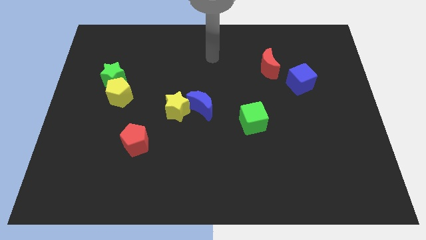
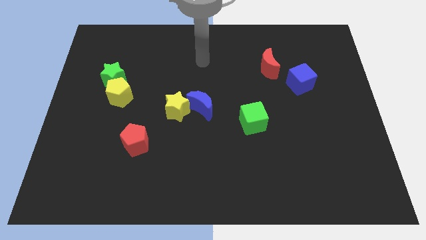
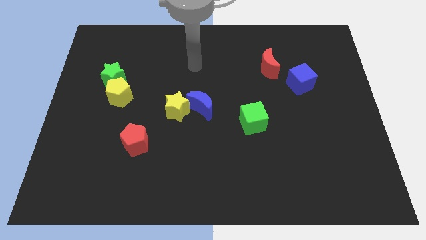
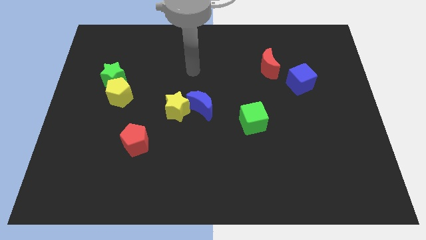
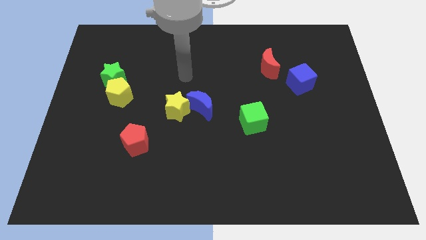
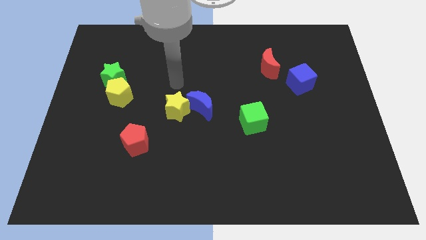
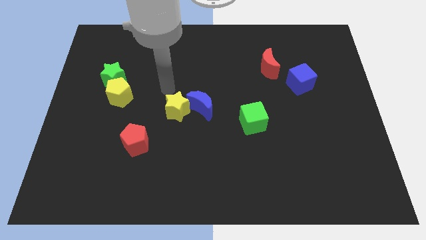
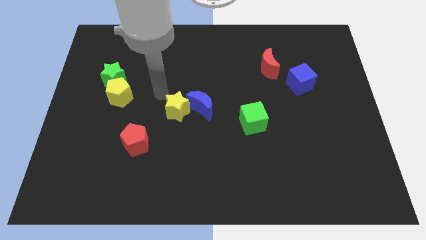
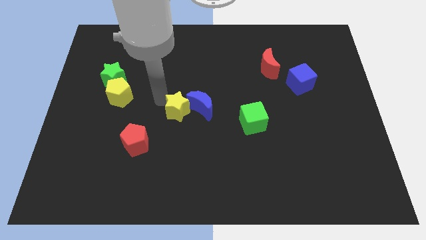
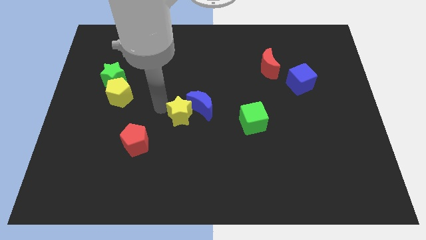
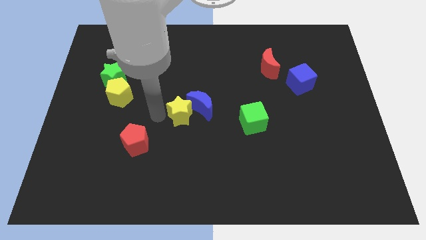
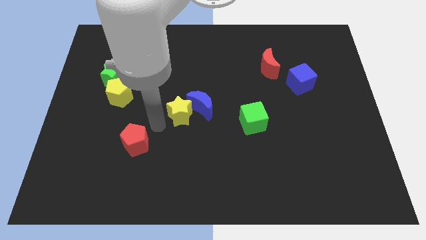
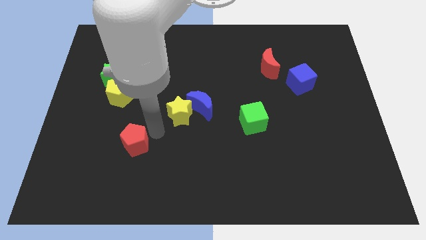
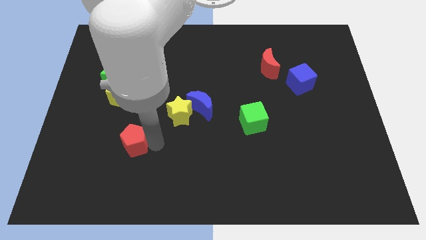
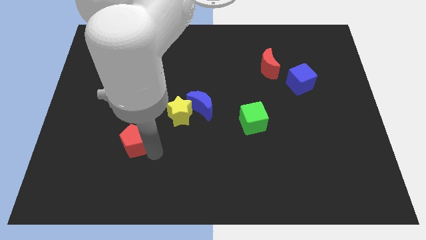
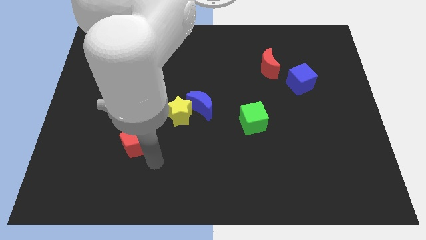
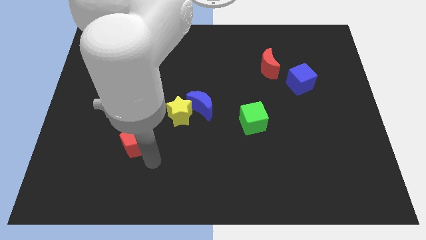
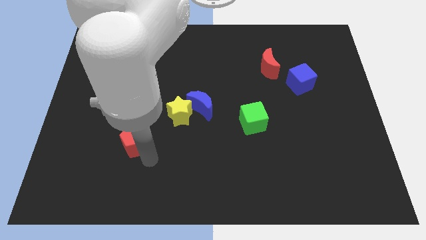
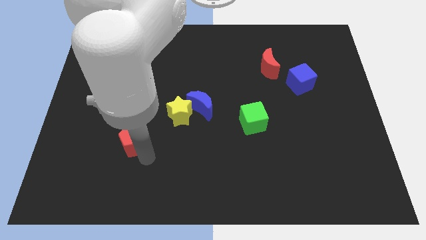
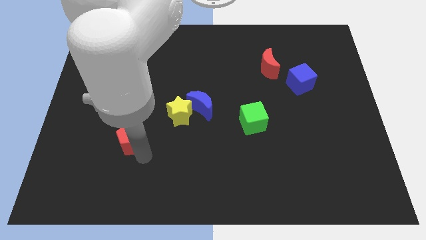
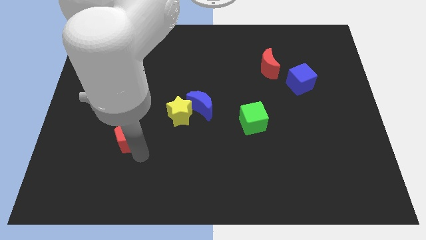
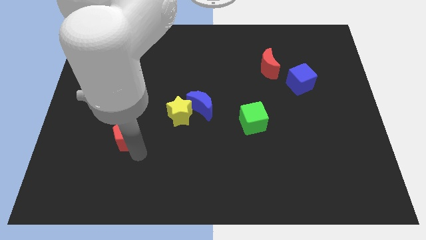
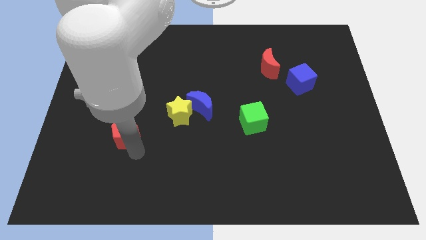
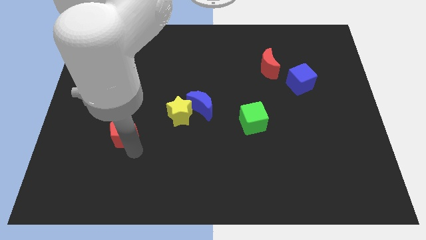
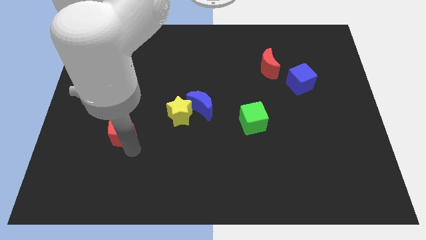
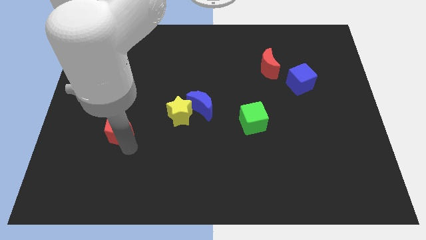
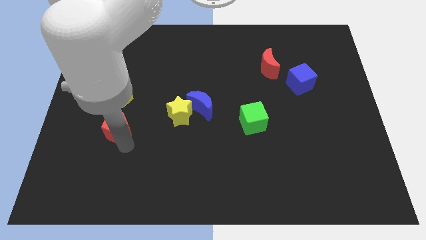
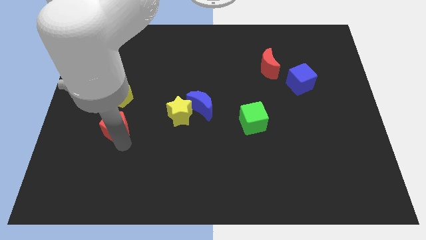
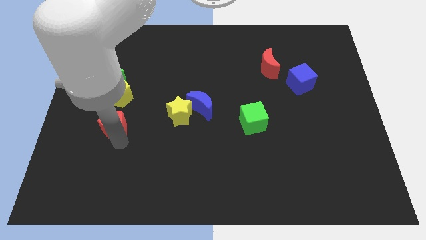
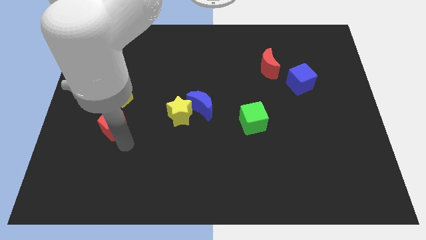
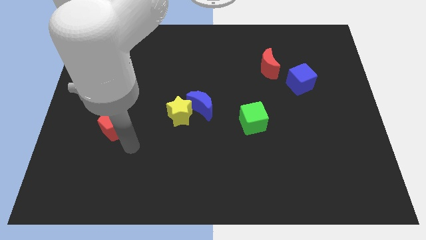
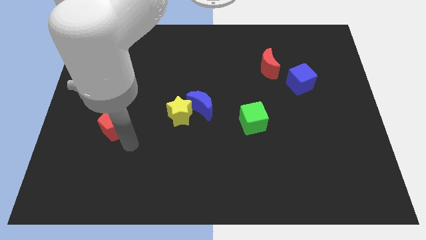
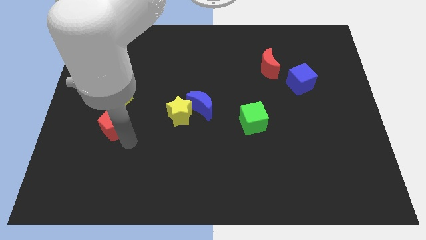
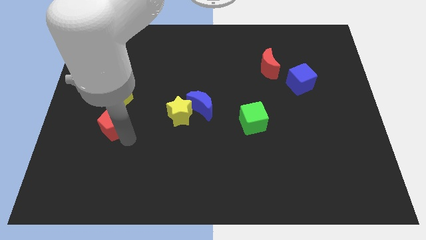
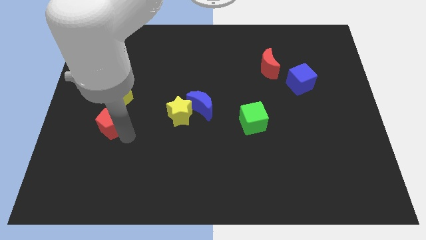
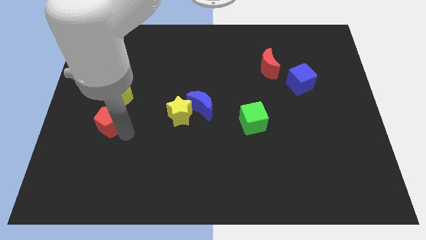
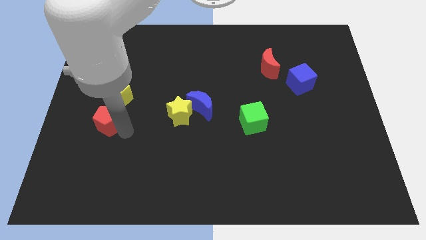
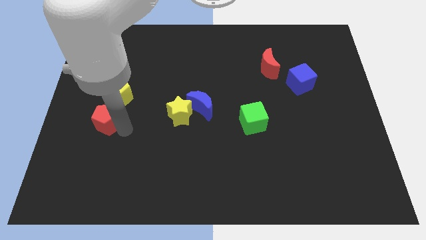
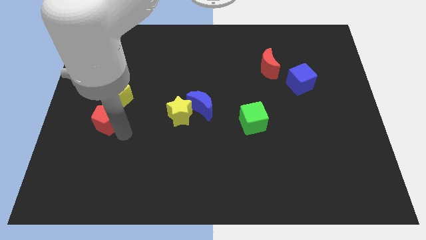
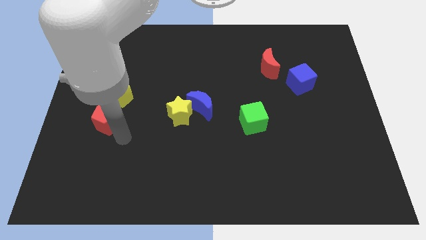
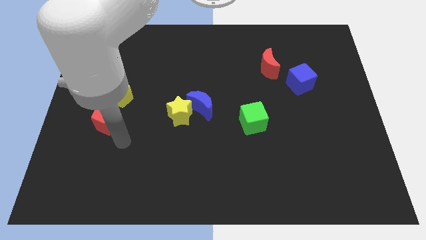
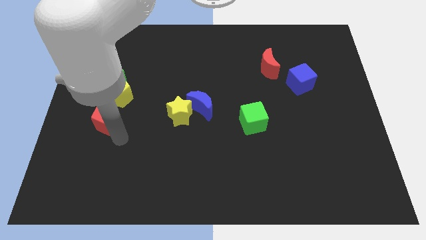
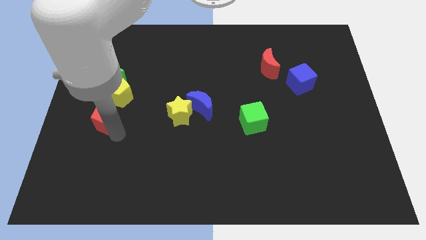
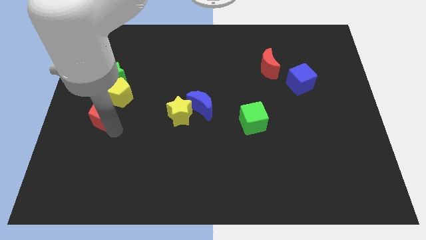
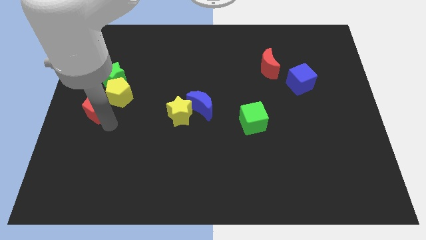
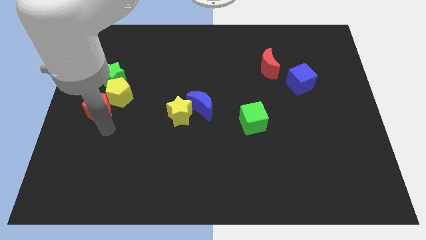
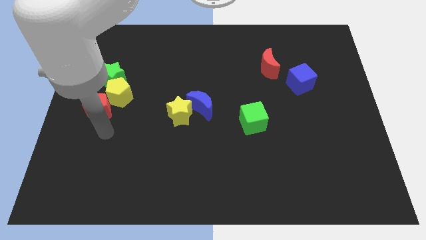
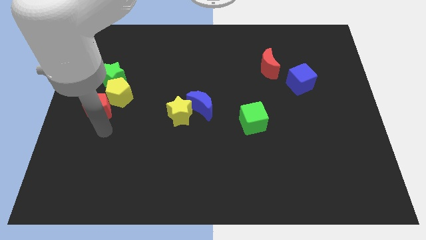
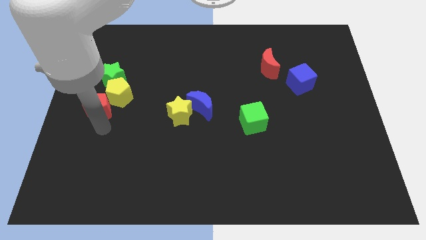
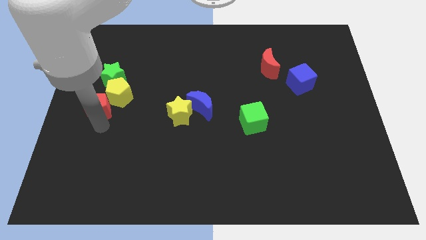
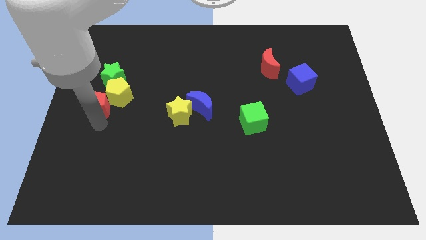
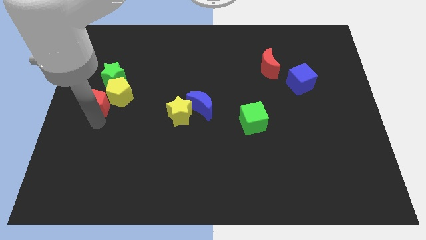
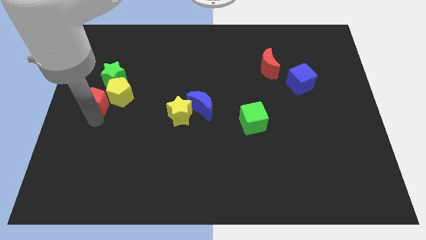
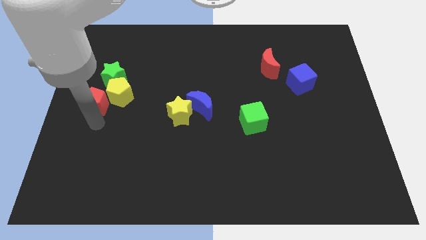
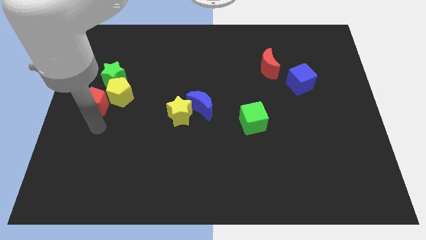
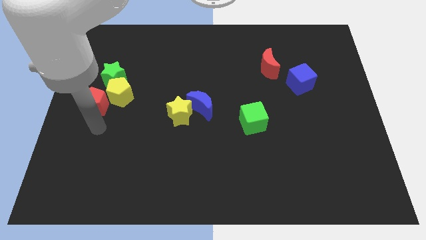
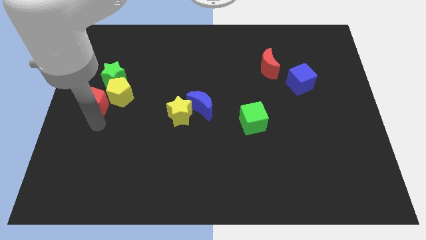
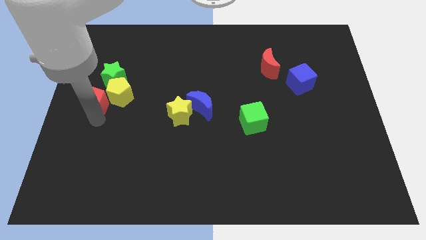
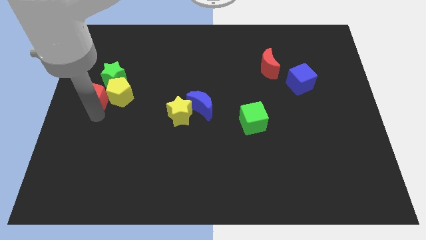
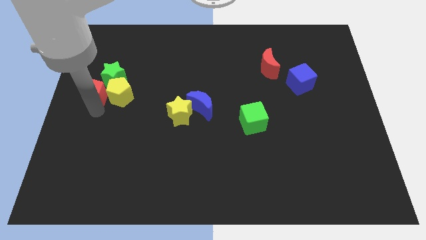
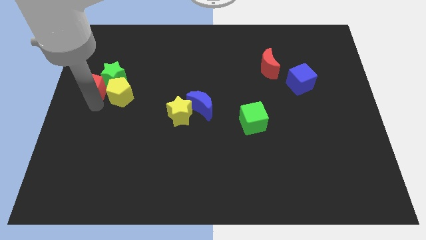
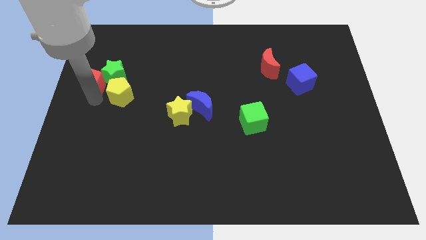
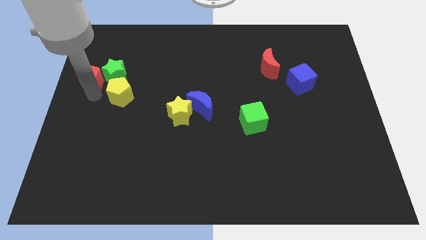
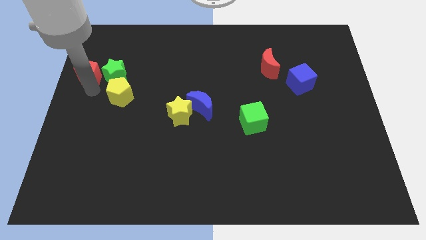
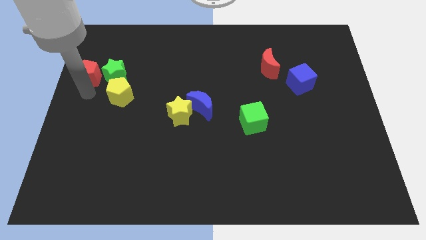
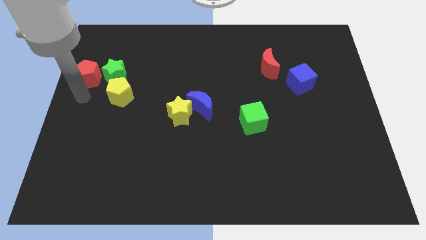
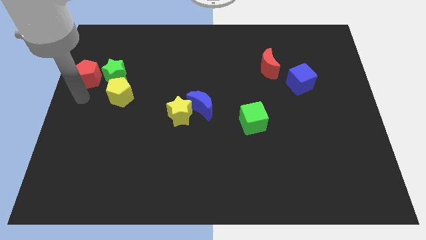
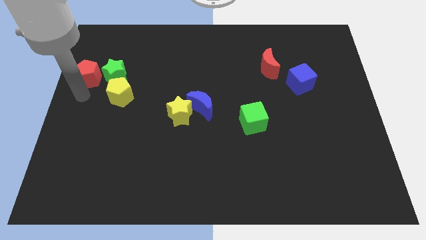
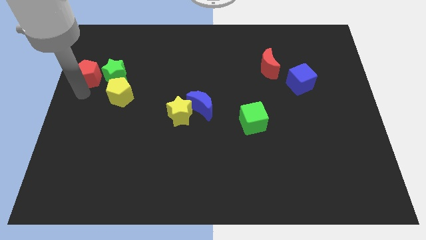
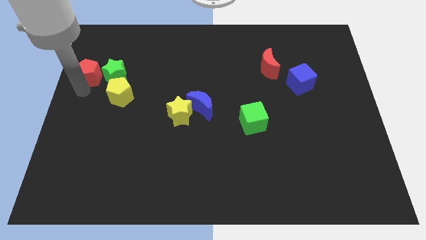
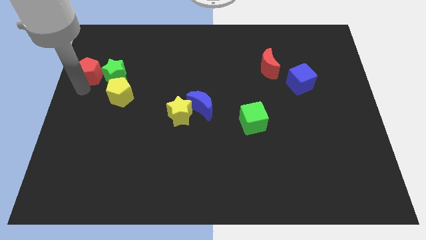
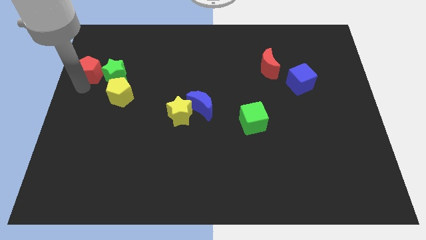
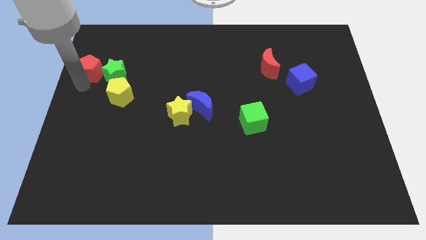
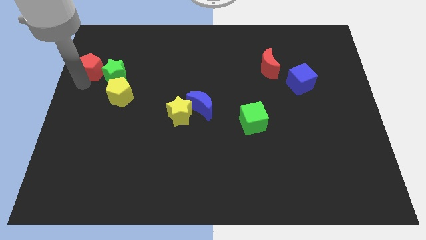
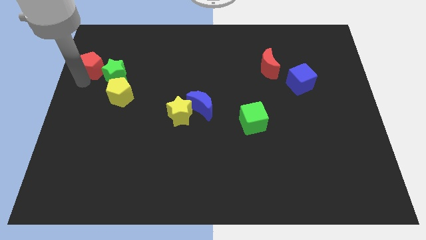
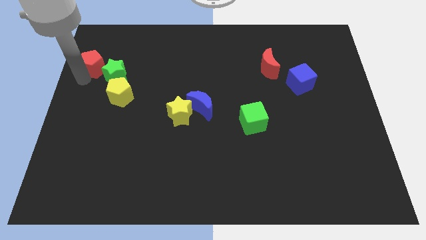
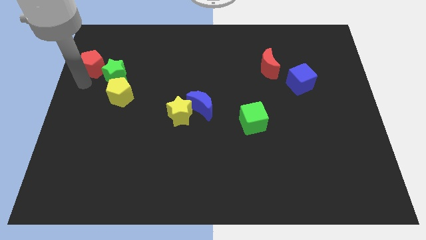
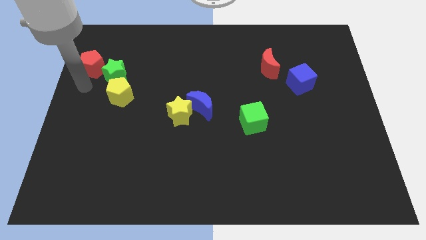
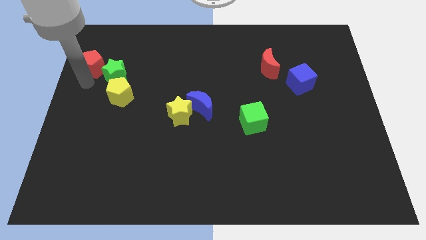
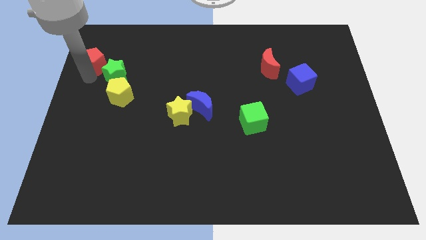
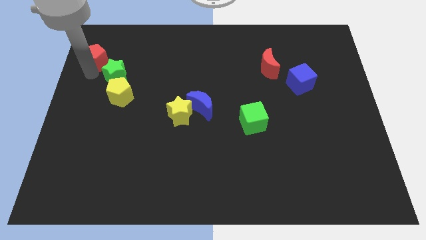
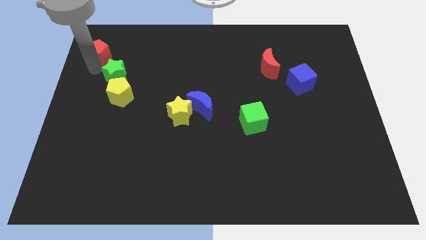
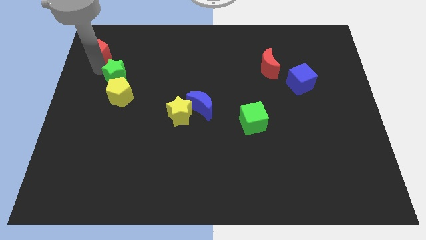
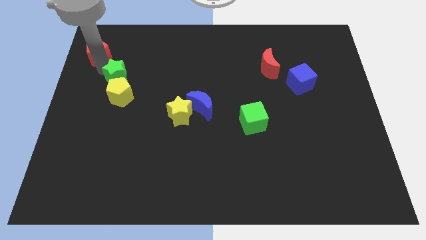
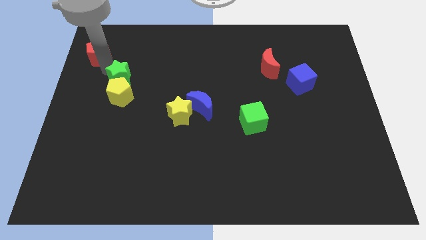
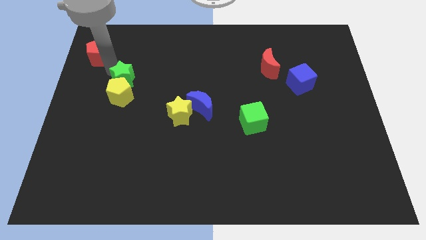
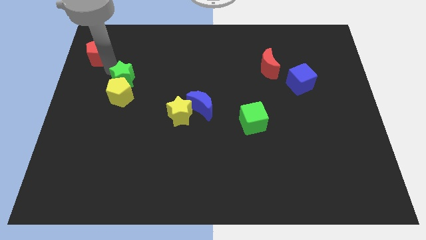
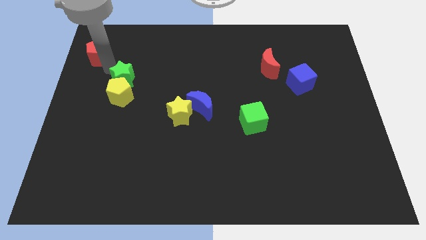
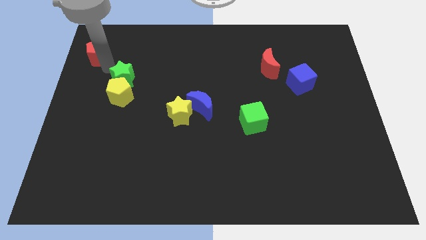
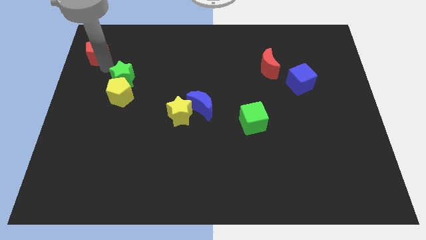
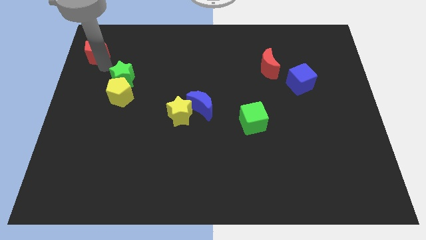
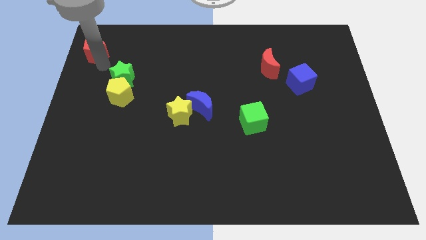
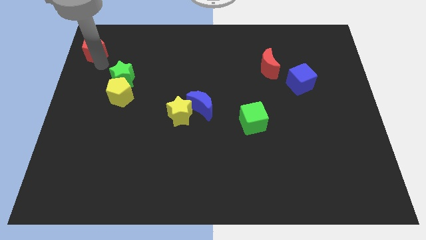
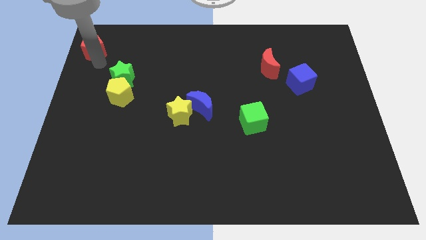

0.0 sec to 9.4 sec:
put the red pentagon to the top left corner
